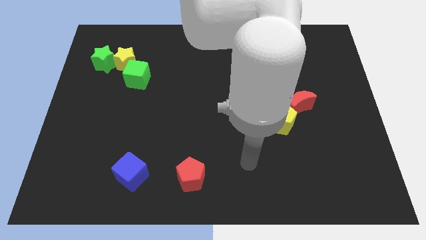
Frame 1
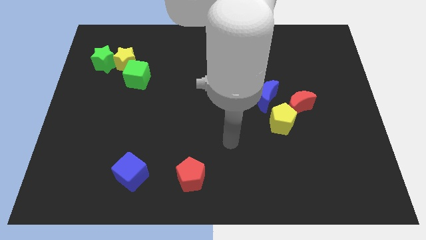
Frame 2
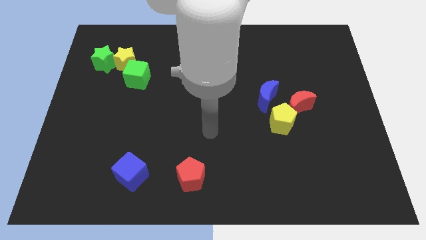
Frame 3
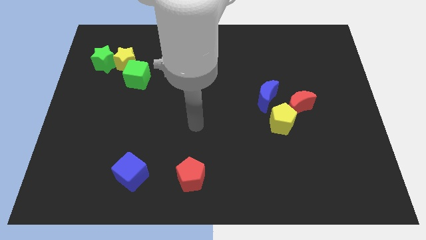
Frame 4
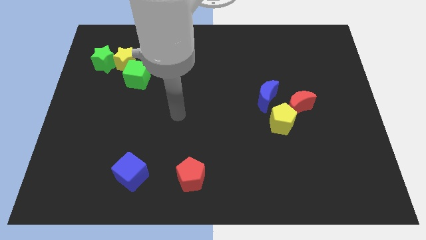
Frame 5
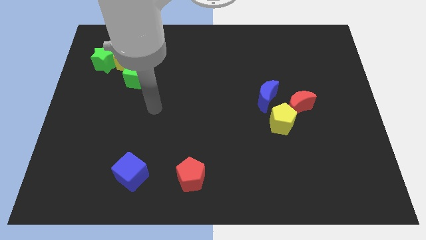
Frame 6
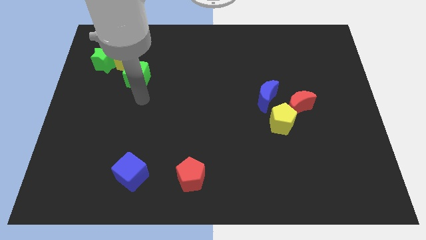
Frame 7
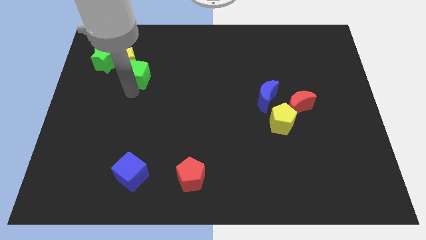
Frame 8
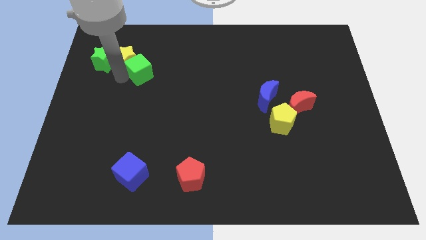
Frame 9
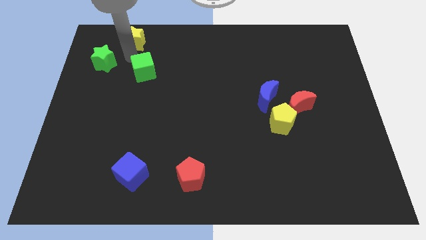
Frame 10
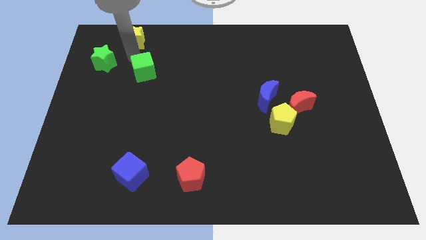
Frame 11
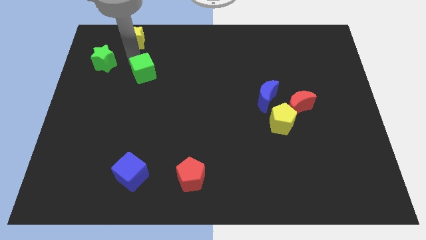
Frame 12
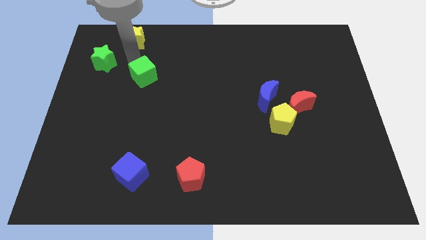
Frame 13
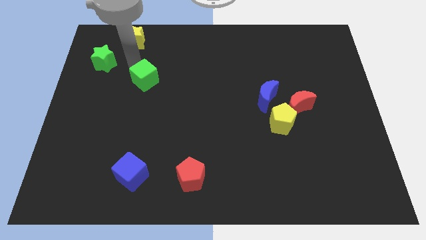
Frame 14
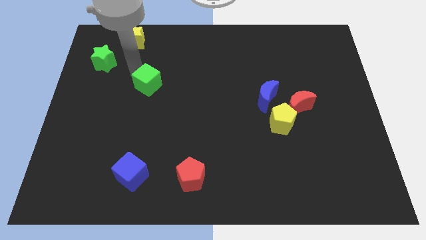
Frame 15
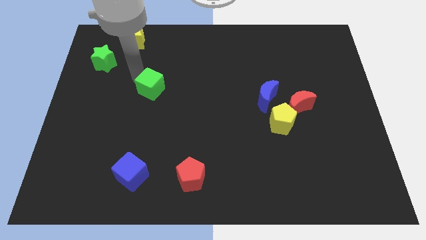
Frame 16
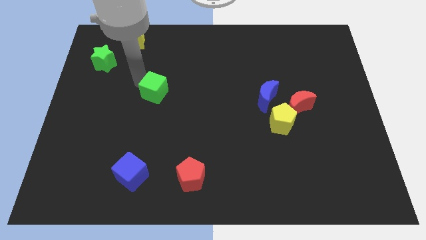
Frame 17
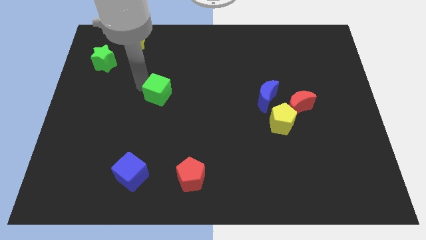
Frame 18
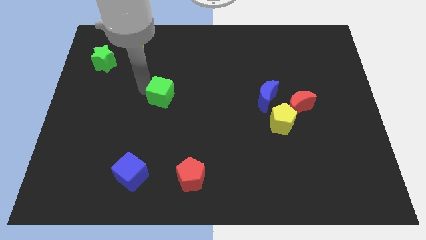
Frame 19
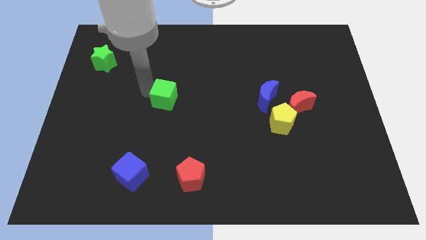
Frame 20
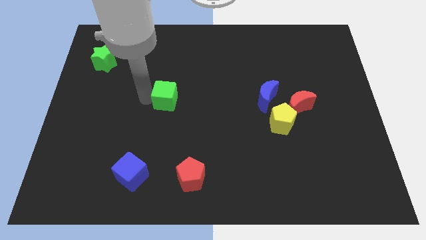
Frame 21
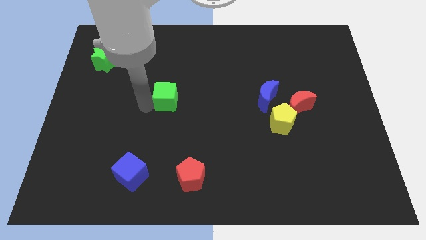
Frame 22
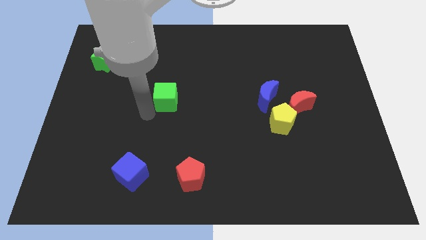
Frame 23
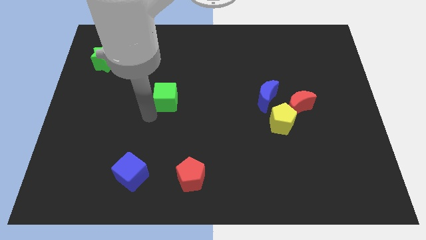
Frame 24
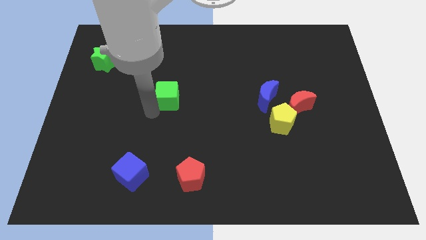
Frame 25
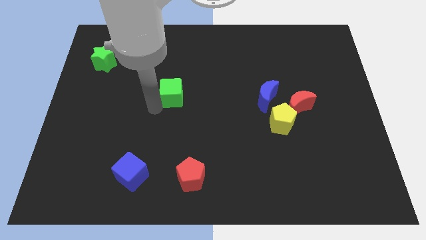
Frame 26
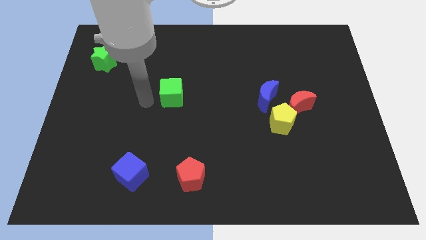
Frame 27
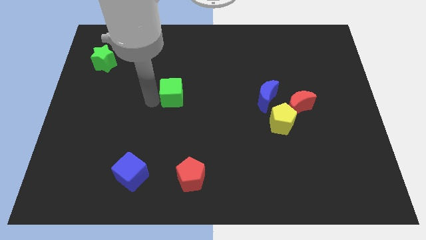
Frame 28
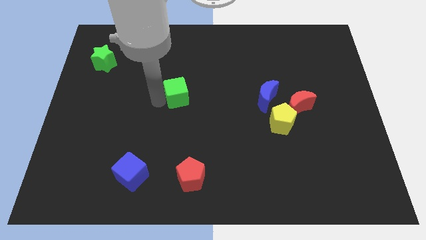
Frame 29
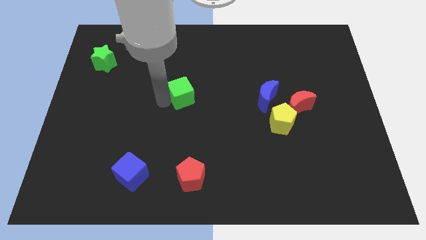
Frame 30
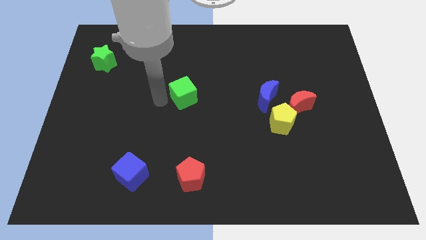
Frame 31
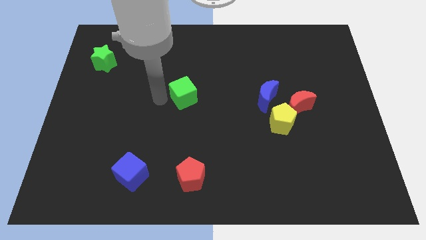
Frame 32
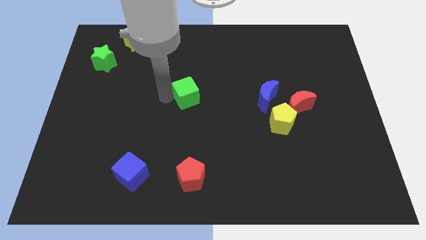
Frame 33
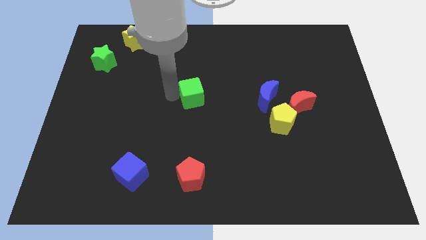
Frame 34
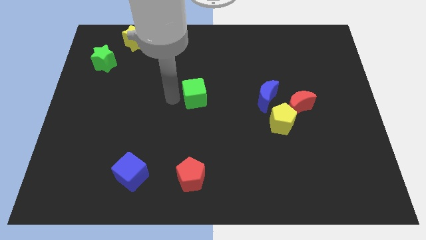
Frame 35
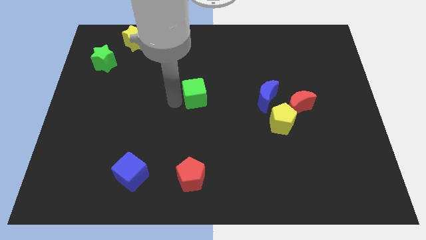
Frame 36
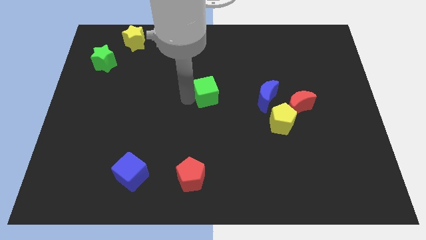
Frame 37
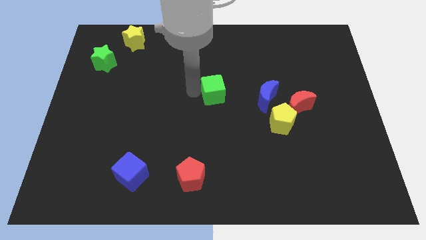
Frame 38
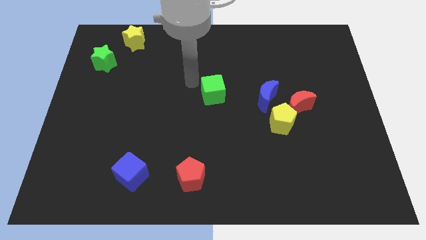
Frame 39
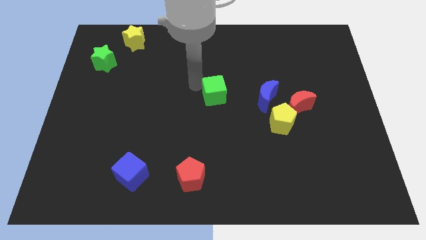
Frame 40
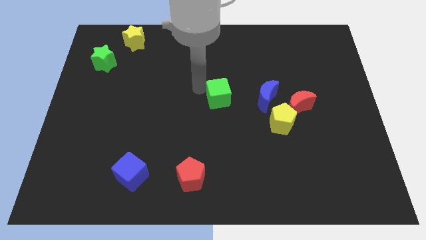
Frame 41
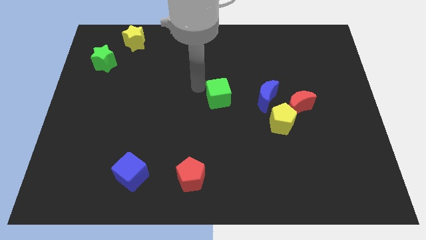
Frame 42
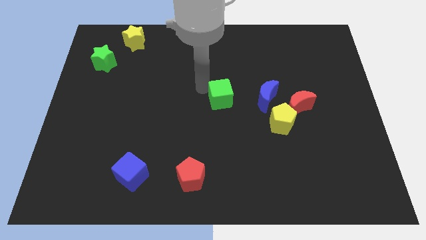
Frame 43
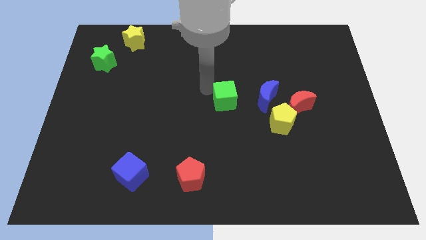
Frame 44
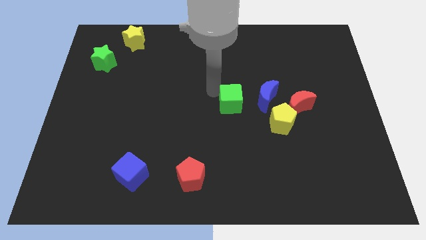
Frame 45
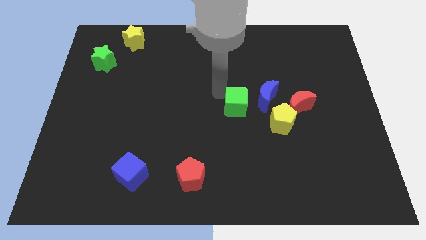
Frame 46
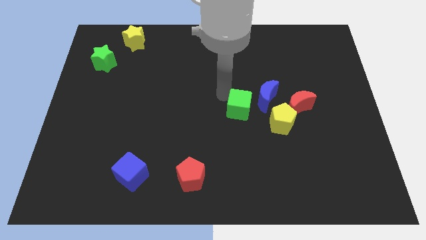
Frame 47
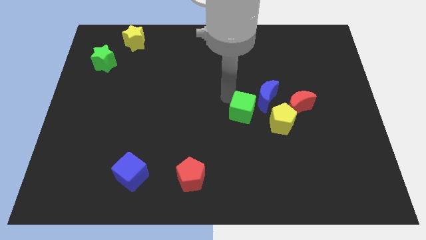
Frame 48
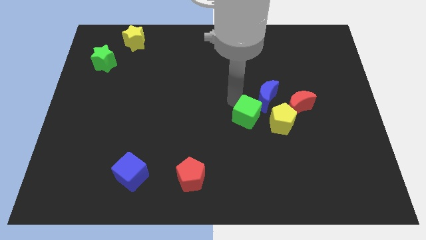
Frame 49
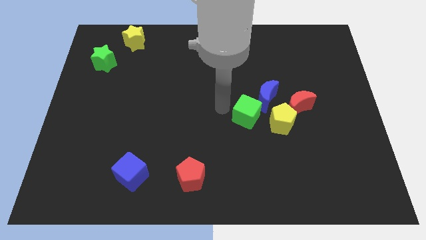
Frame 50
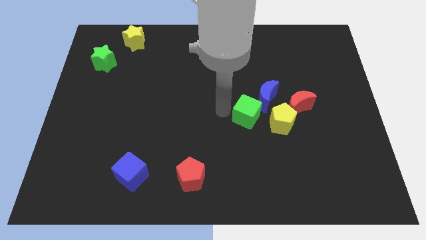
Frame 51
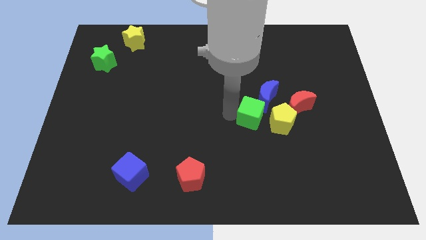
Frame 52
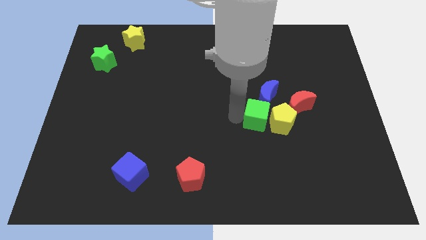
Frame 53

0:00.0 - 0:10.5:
put the green cube towards the yellow pentagon

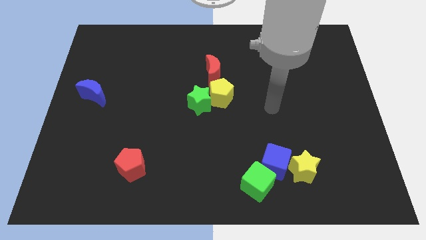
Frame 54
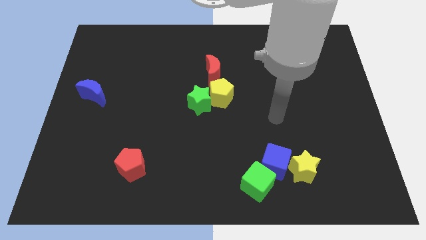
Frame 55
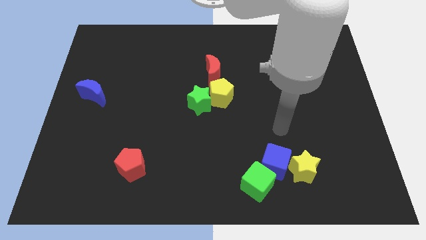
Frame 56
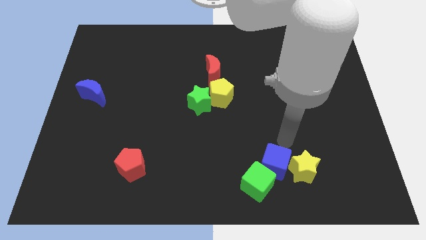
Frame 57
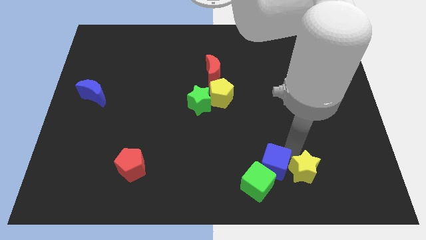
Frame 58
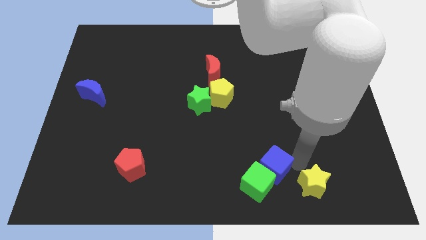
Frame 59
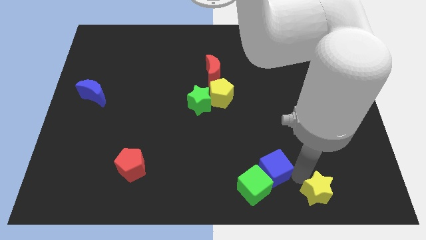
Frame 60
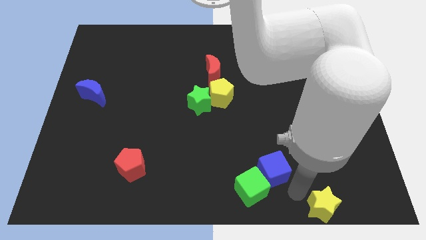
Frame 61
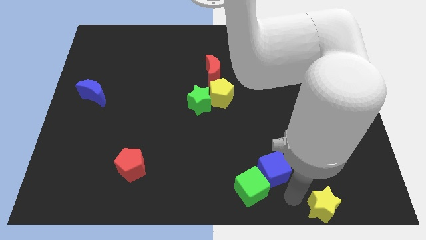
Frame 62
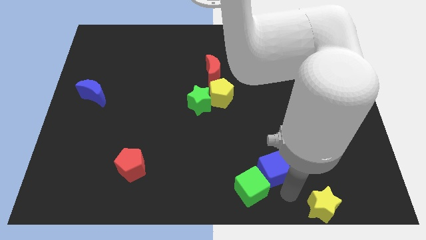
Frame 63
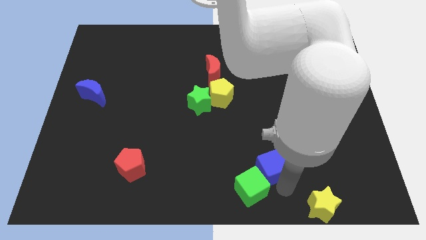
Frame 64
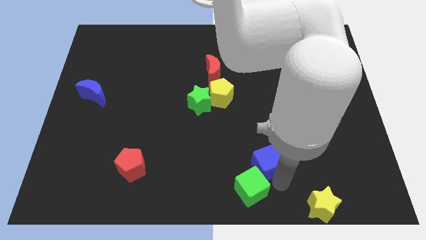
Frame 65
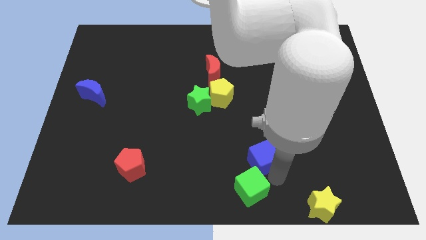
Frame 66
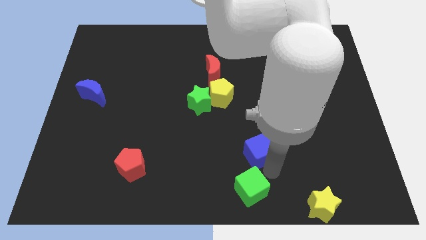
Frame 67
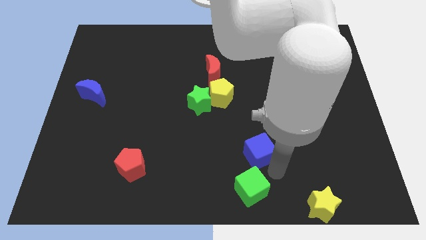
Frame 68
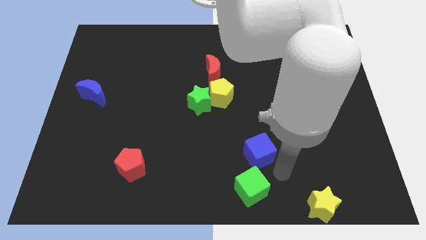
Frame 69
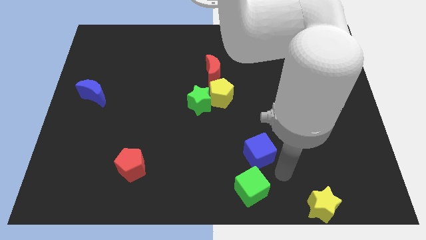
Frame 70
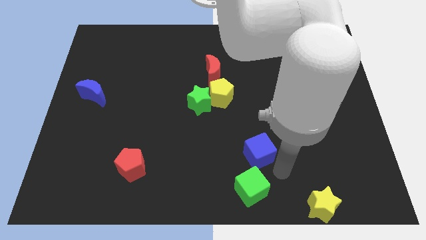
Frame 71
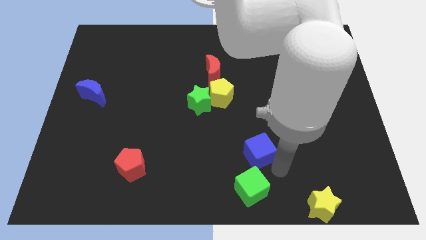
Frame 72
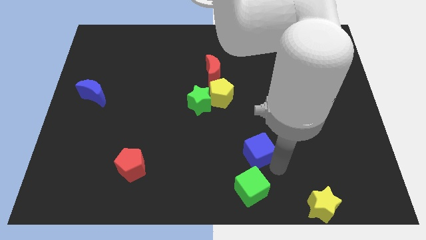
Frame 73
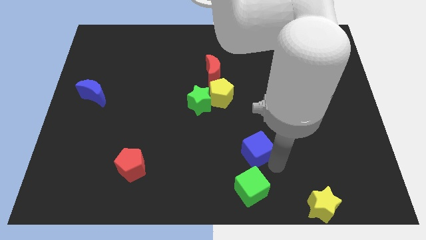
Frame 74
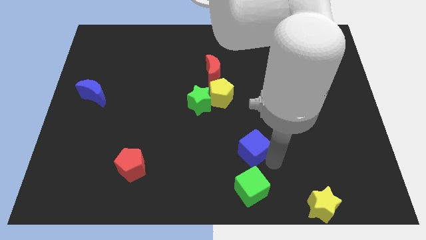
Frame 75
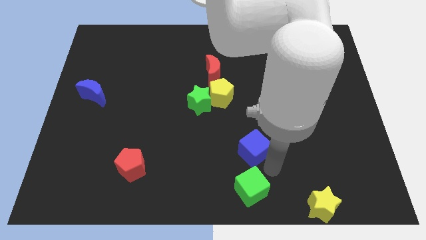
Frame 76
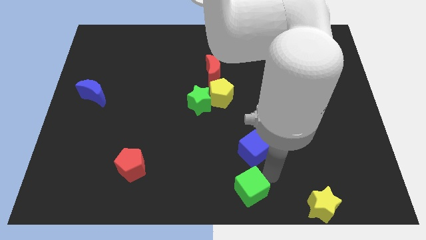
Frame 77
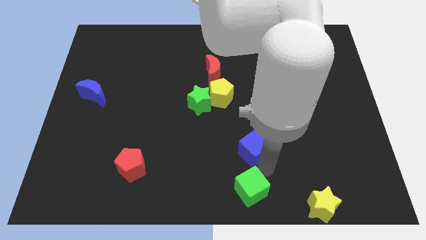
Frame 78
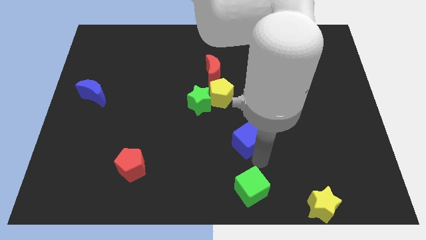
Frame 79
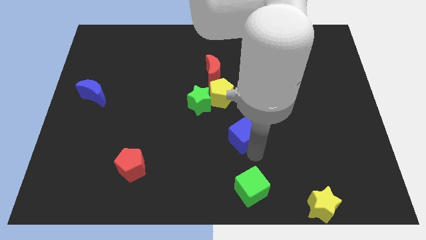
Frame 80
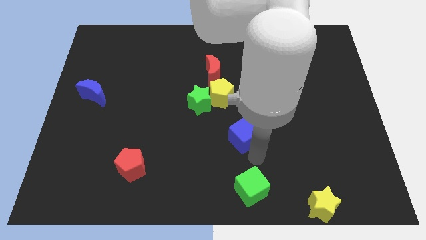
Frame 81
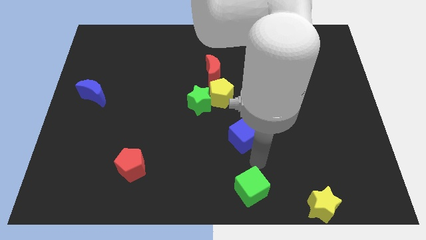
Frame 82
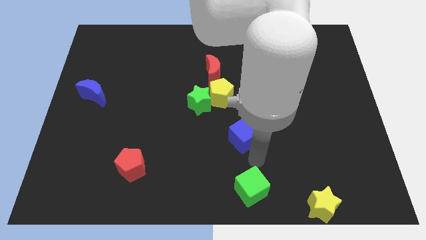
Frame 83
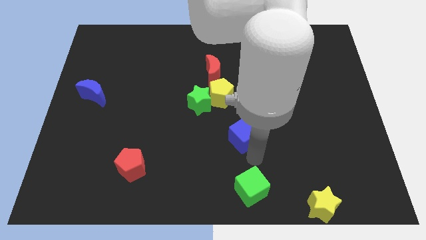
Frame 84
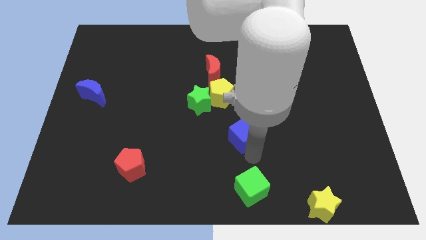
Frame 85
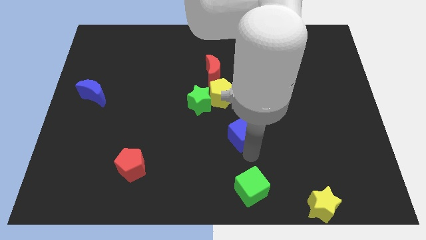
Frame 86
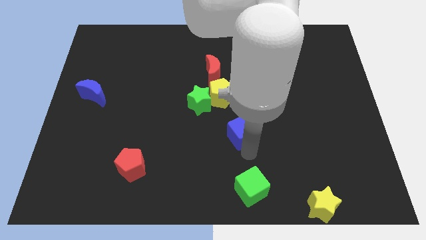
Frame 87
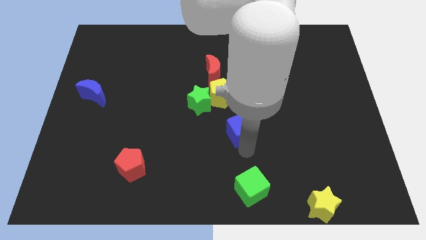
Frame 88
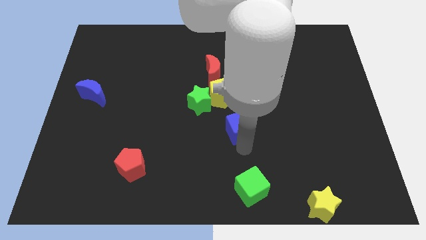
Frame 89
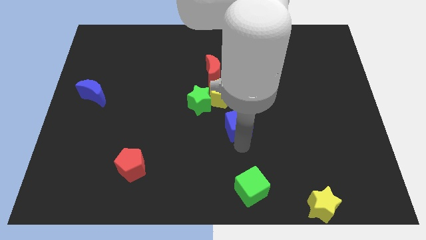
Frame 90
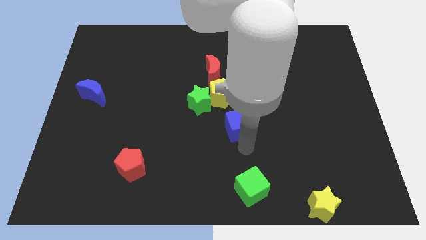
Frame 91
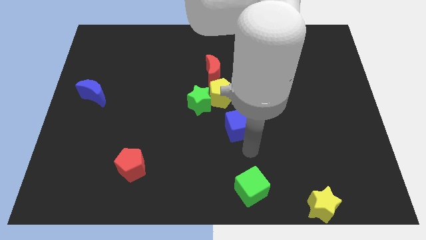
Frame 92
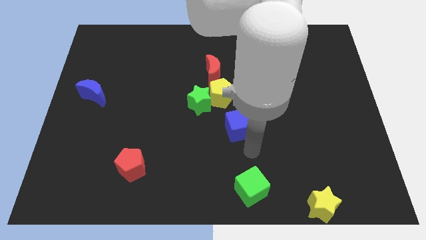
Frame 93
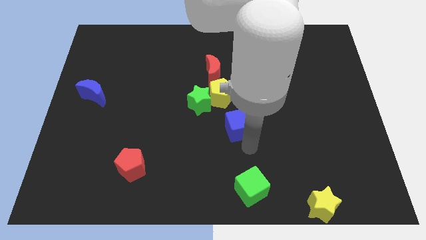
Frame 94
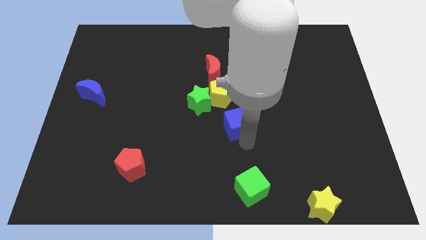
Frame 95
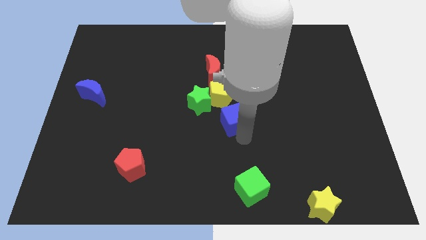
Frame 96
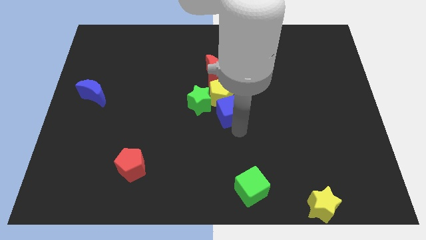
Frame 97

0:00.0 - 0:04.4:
put the blue cube next to the yellow pentagon
